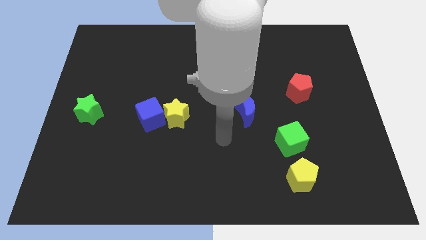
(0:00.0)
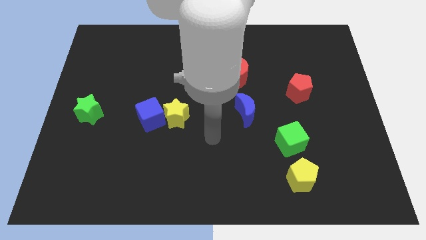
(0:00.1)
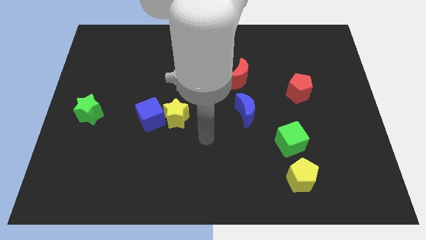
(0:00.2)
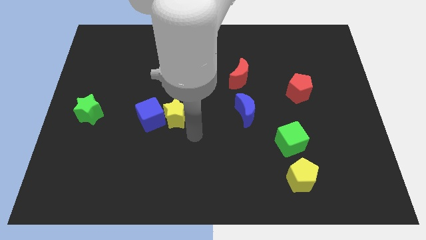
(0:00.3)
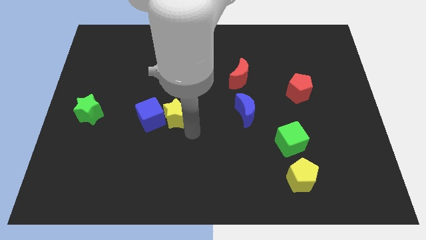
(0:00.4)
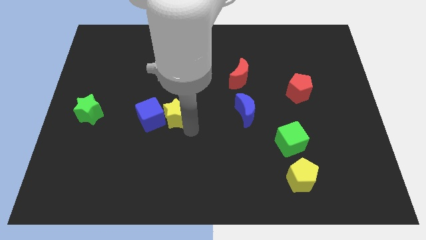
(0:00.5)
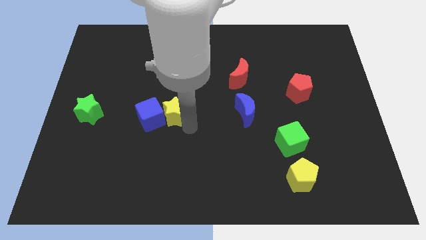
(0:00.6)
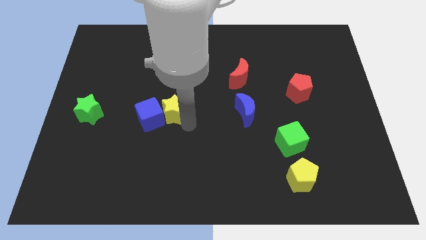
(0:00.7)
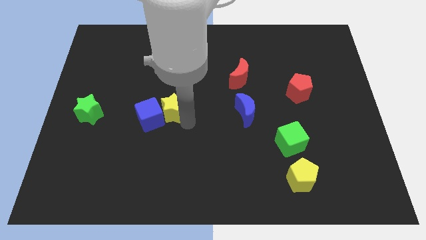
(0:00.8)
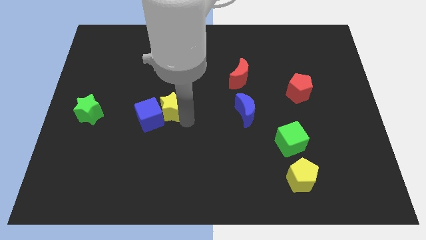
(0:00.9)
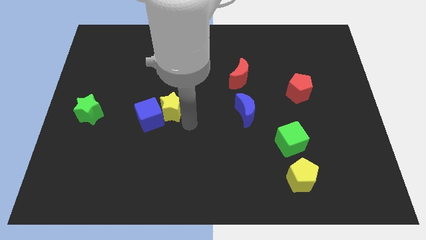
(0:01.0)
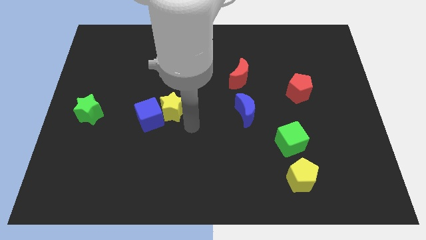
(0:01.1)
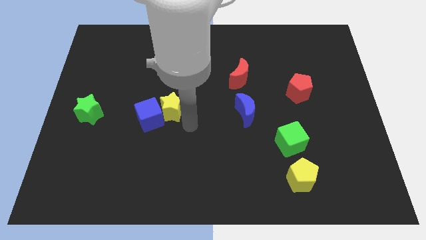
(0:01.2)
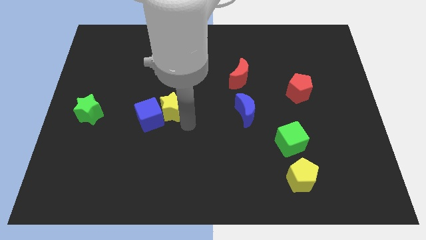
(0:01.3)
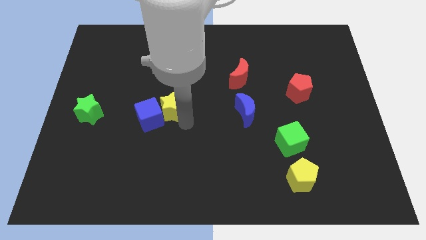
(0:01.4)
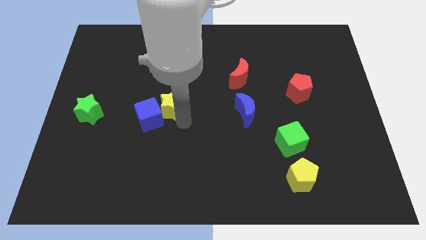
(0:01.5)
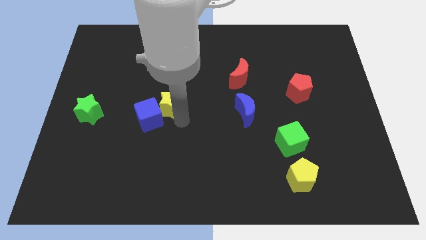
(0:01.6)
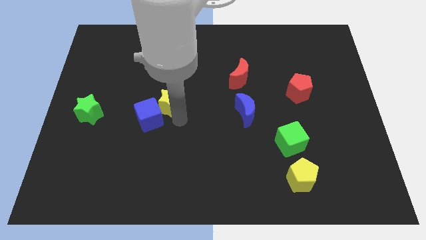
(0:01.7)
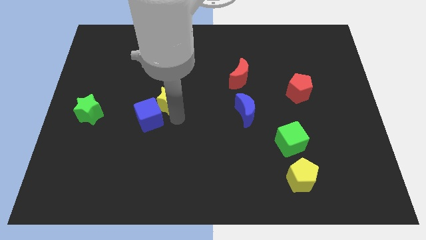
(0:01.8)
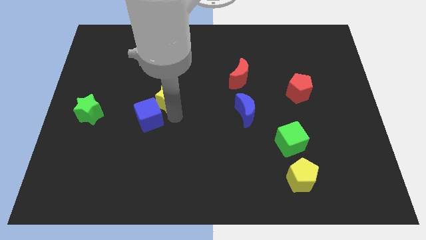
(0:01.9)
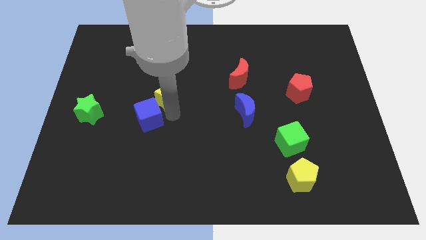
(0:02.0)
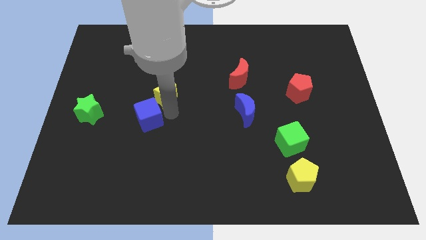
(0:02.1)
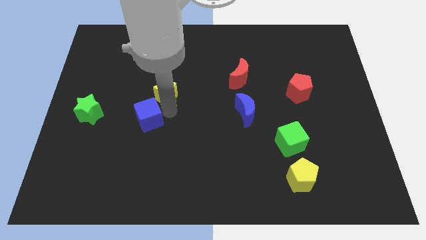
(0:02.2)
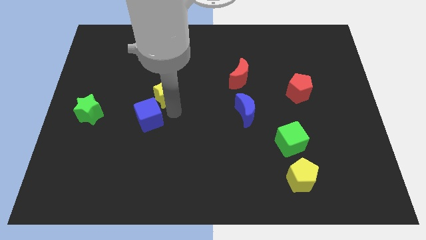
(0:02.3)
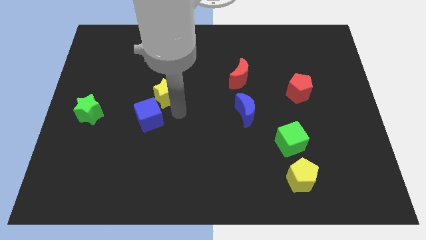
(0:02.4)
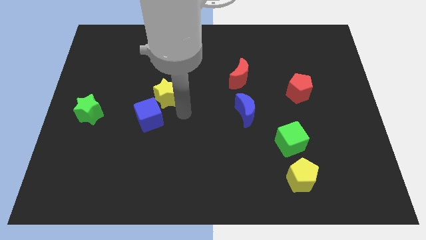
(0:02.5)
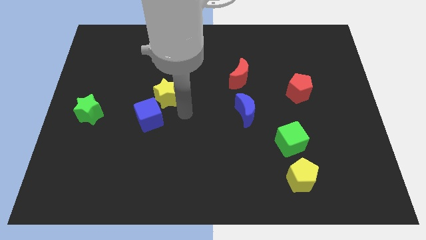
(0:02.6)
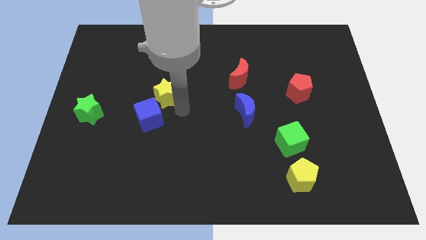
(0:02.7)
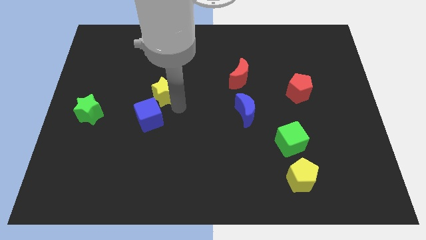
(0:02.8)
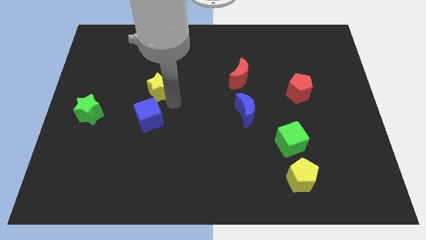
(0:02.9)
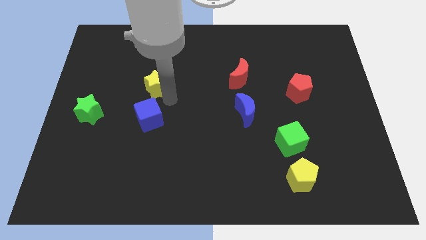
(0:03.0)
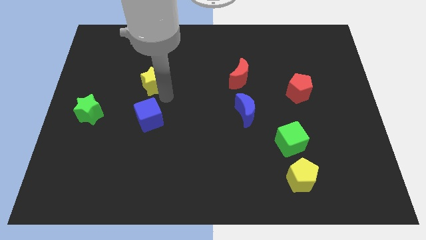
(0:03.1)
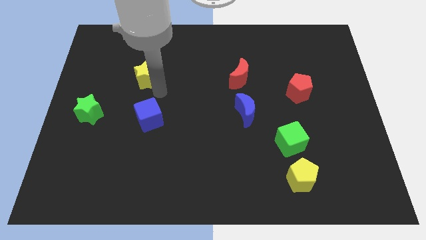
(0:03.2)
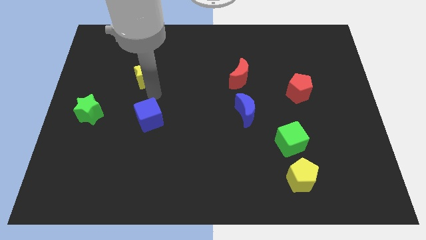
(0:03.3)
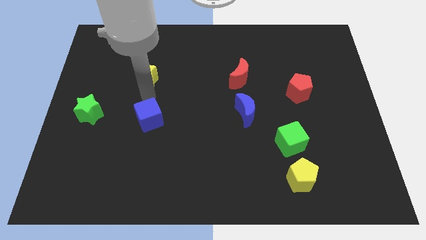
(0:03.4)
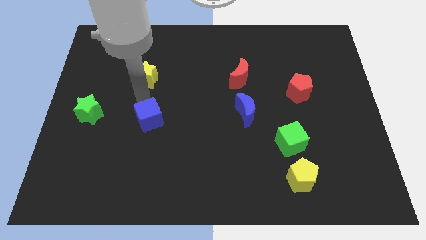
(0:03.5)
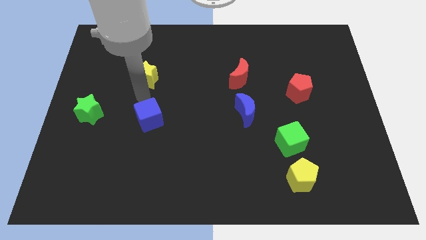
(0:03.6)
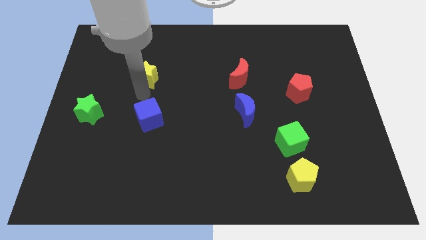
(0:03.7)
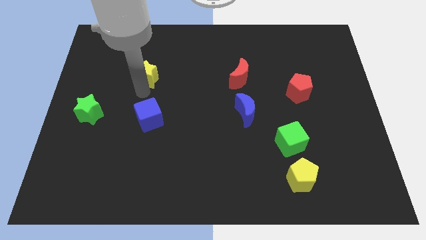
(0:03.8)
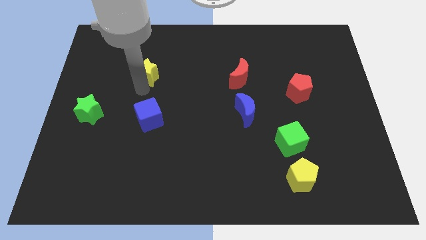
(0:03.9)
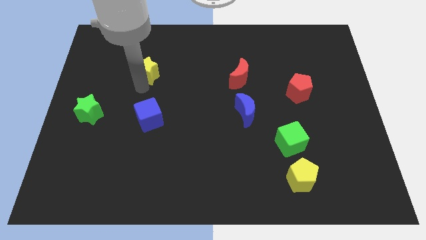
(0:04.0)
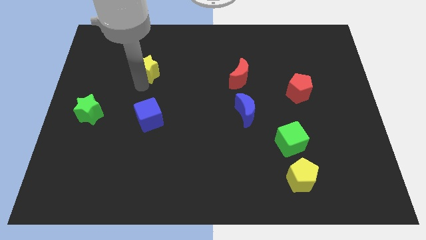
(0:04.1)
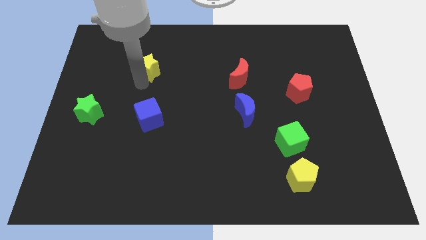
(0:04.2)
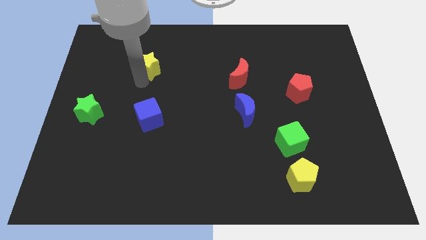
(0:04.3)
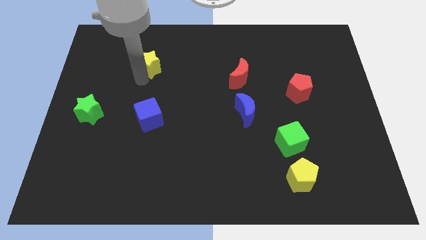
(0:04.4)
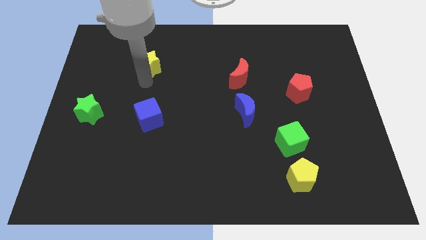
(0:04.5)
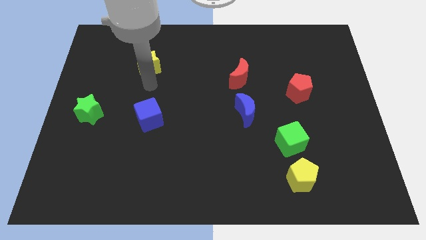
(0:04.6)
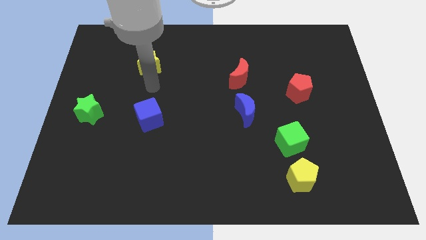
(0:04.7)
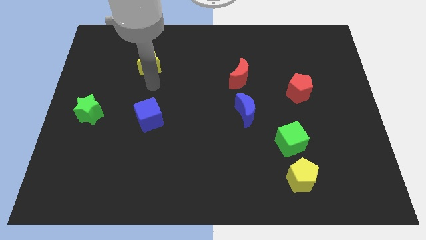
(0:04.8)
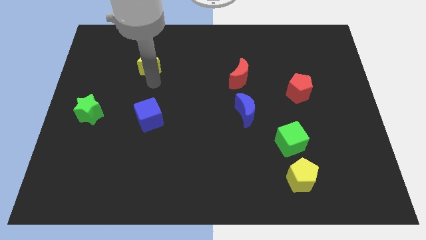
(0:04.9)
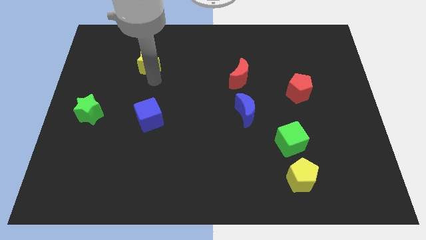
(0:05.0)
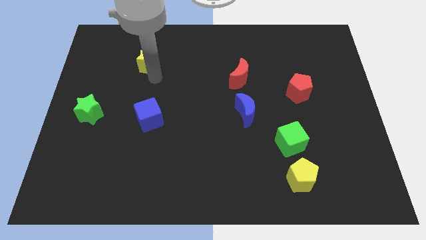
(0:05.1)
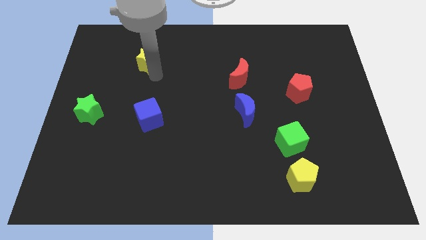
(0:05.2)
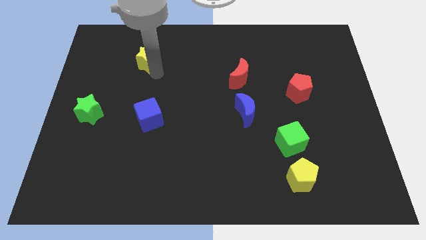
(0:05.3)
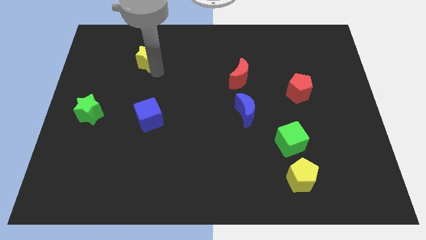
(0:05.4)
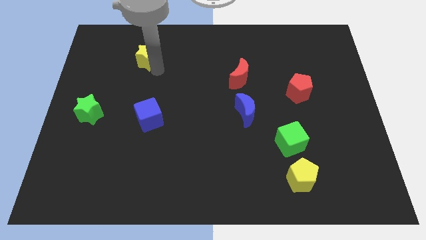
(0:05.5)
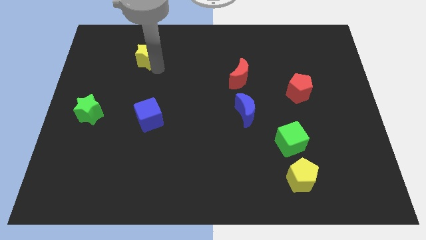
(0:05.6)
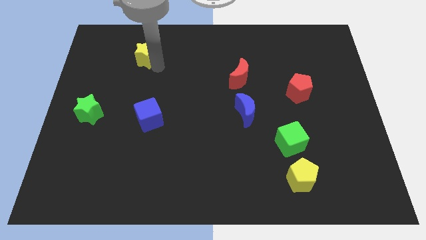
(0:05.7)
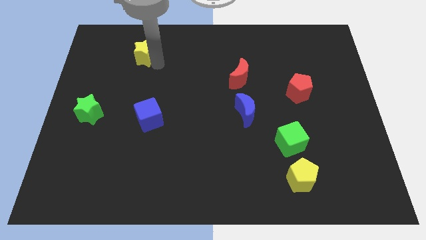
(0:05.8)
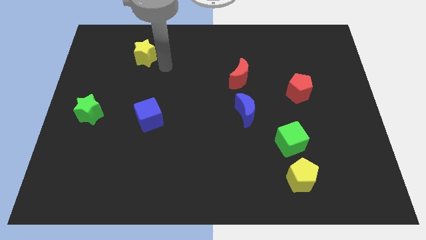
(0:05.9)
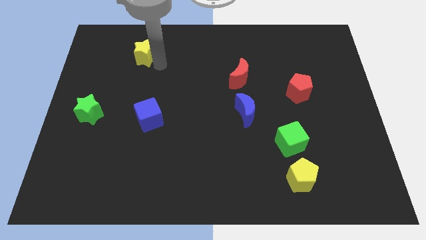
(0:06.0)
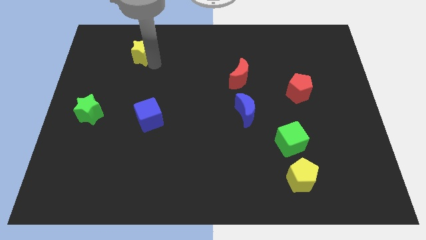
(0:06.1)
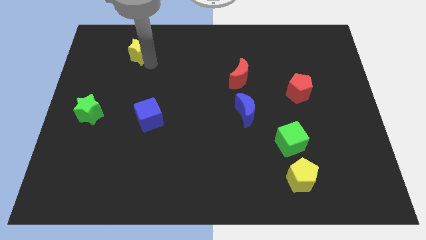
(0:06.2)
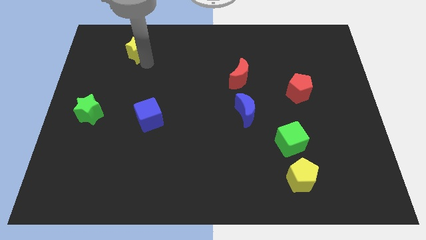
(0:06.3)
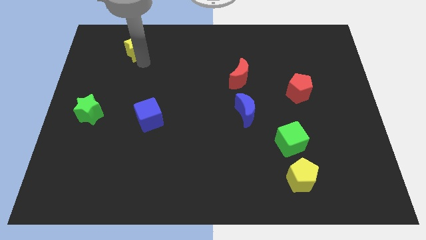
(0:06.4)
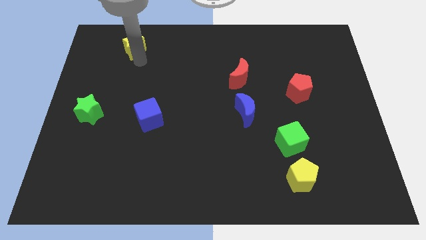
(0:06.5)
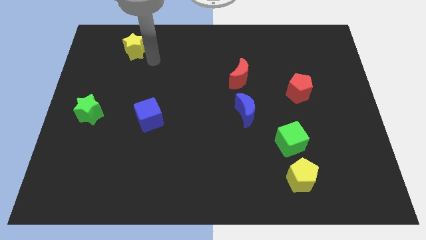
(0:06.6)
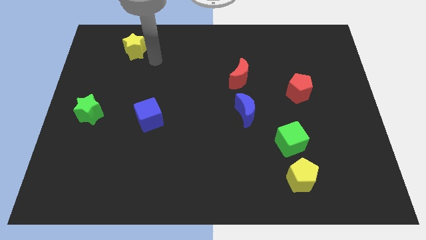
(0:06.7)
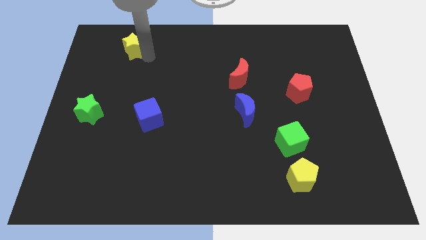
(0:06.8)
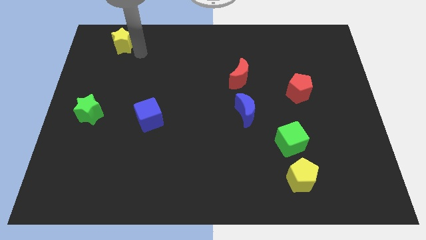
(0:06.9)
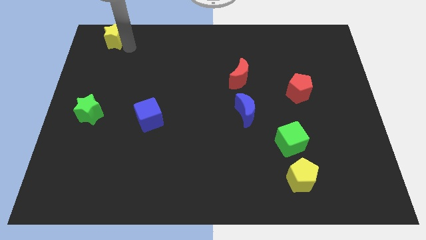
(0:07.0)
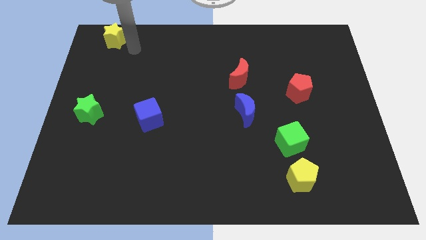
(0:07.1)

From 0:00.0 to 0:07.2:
move the yellow star to the upper left corner
